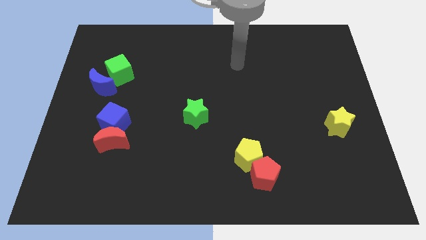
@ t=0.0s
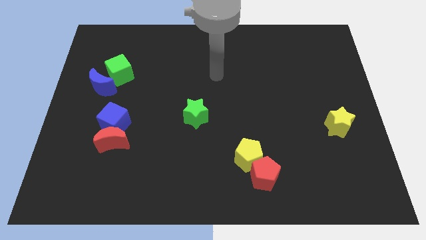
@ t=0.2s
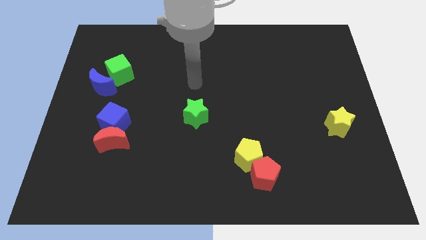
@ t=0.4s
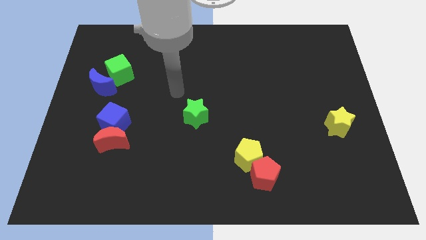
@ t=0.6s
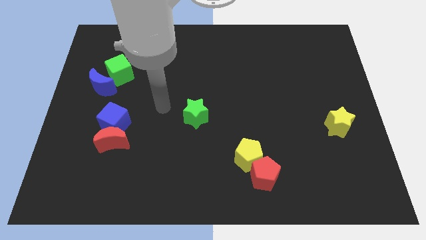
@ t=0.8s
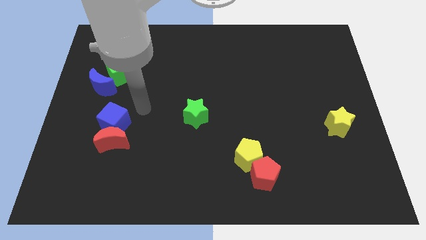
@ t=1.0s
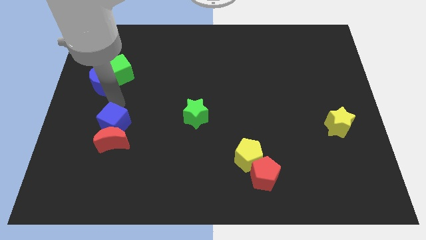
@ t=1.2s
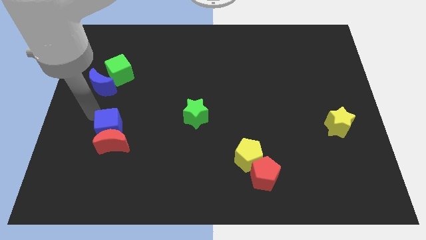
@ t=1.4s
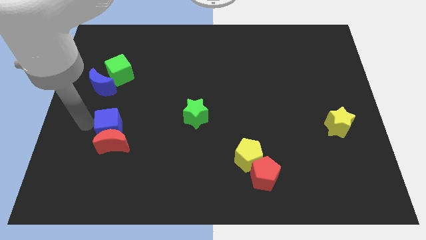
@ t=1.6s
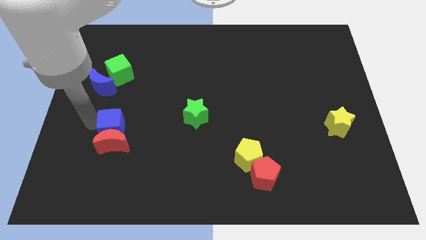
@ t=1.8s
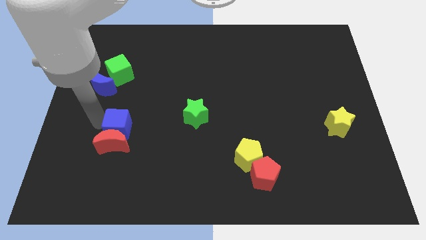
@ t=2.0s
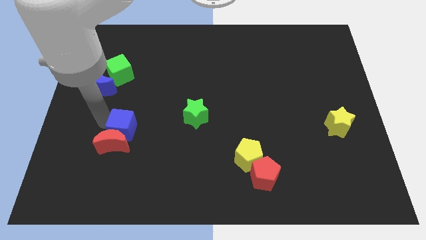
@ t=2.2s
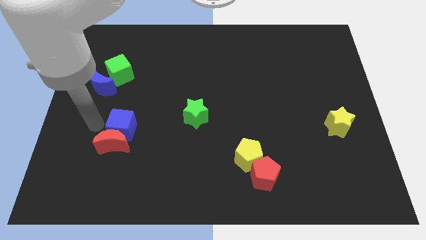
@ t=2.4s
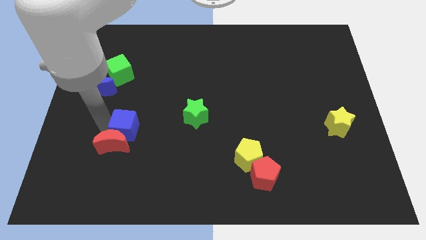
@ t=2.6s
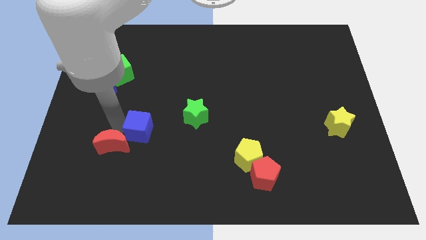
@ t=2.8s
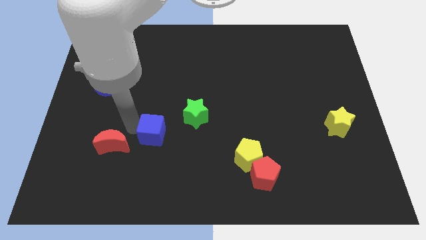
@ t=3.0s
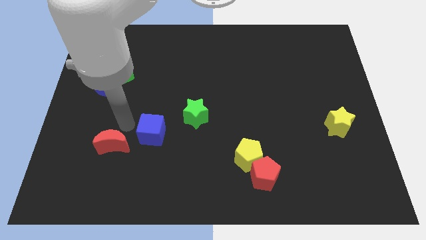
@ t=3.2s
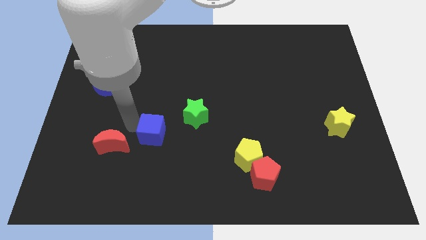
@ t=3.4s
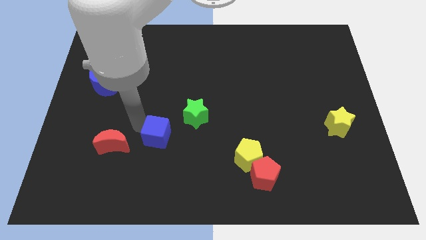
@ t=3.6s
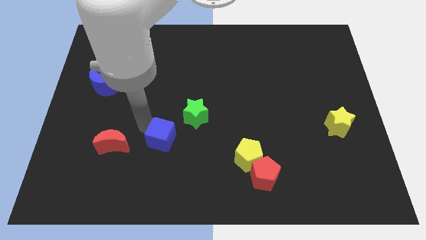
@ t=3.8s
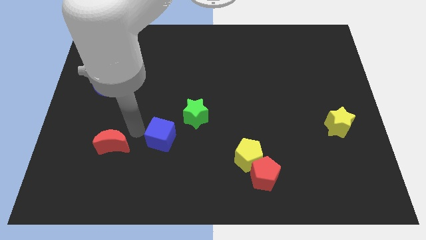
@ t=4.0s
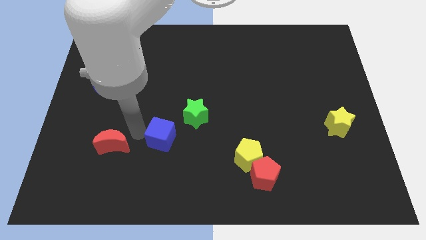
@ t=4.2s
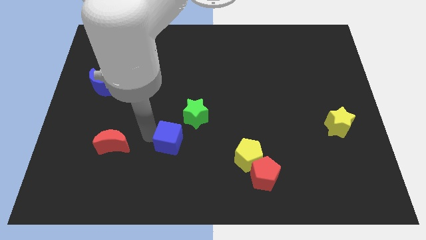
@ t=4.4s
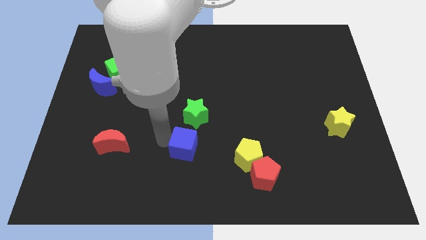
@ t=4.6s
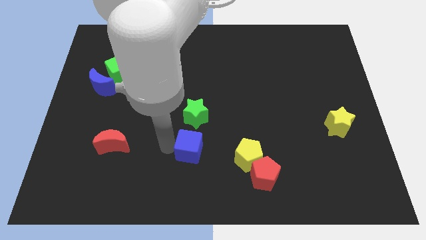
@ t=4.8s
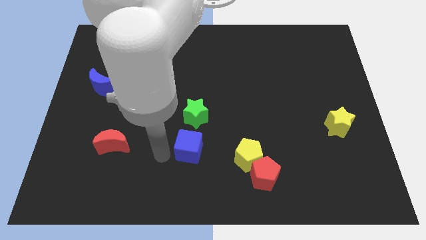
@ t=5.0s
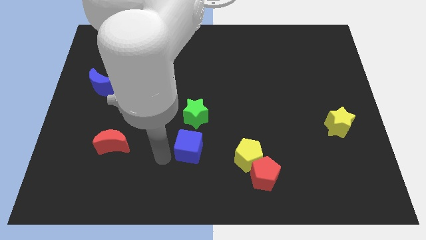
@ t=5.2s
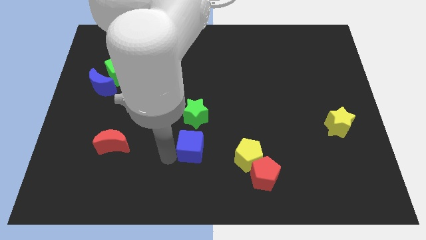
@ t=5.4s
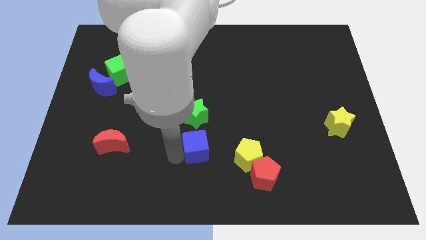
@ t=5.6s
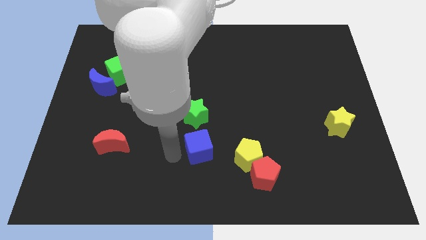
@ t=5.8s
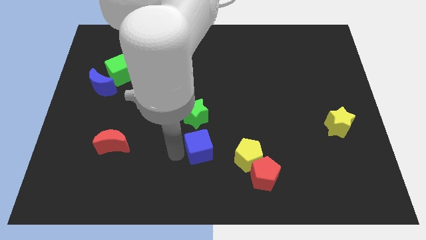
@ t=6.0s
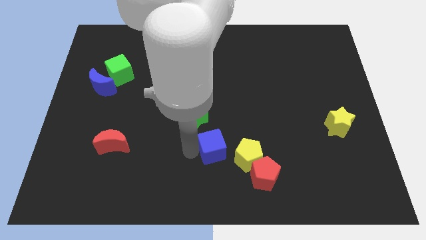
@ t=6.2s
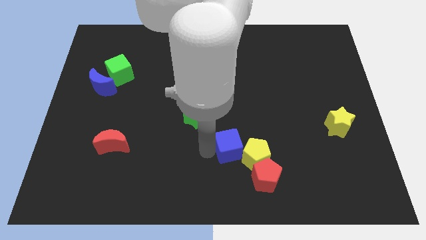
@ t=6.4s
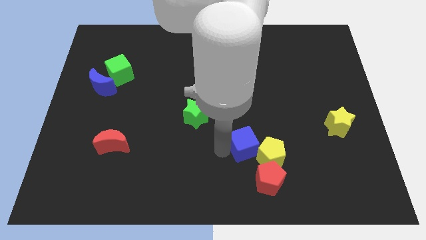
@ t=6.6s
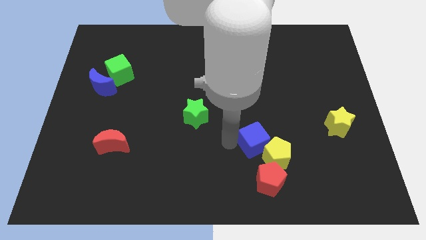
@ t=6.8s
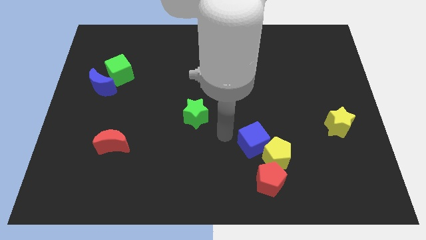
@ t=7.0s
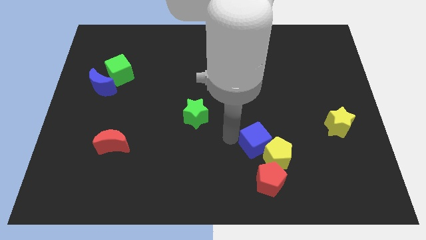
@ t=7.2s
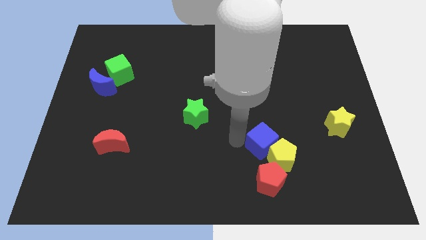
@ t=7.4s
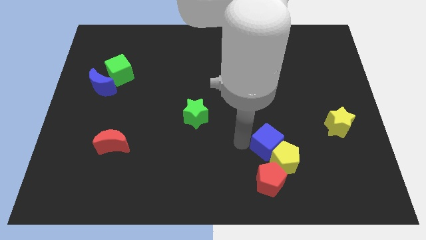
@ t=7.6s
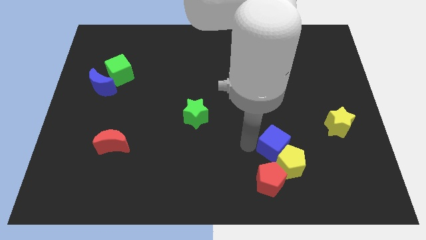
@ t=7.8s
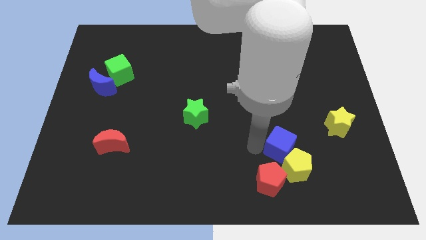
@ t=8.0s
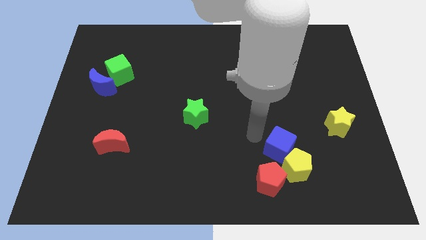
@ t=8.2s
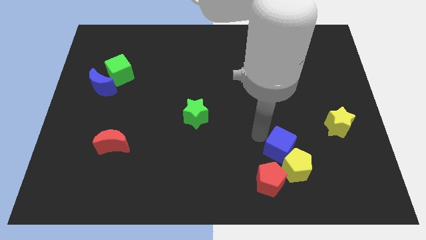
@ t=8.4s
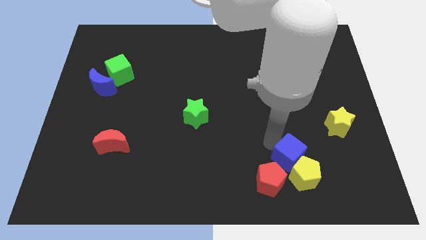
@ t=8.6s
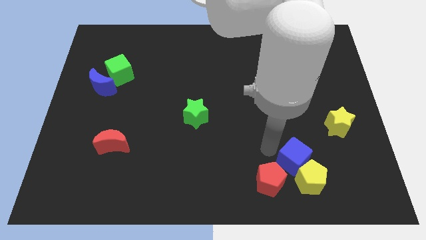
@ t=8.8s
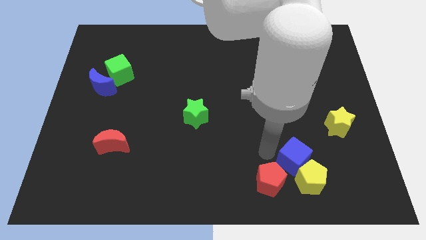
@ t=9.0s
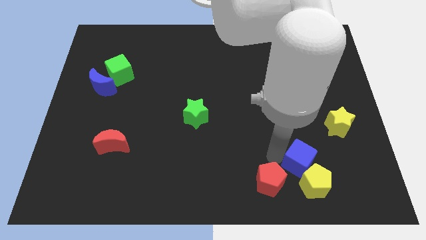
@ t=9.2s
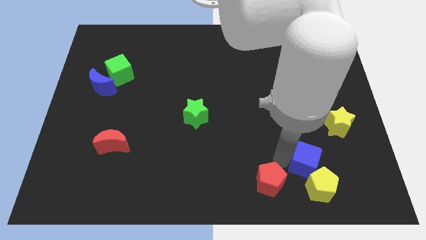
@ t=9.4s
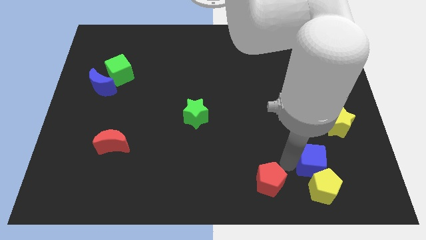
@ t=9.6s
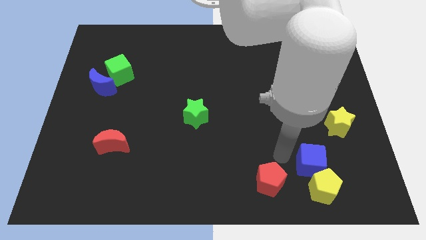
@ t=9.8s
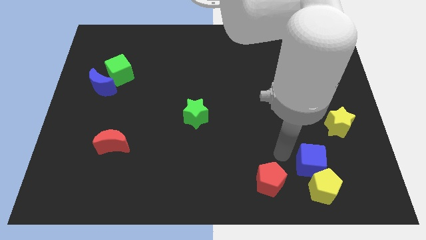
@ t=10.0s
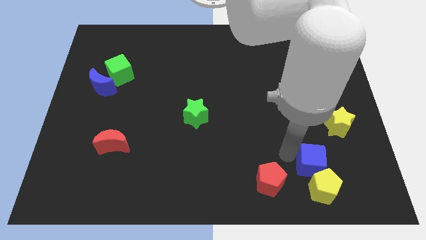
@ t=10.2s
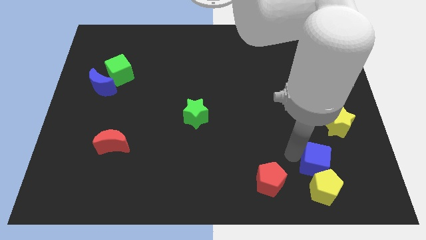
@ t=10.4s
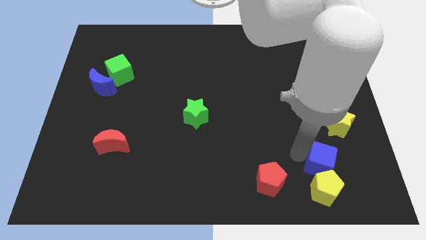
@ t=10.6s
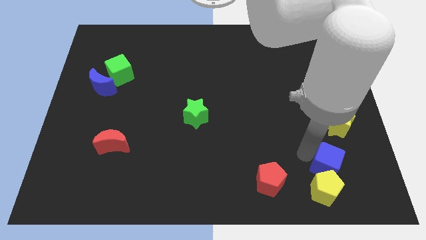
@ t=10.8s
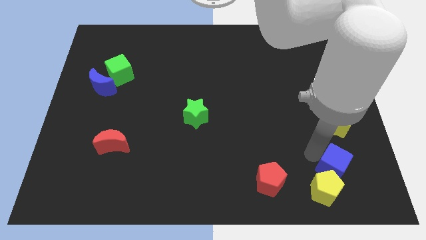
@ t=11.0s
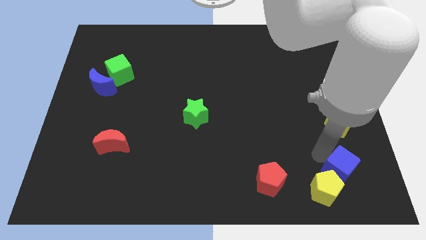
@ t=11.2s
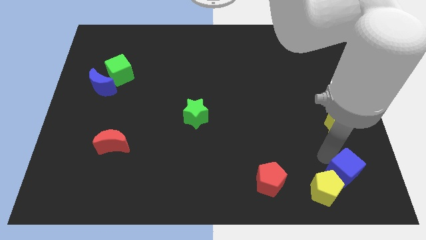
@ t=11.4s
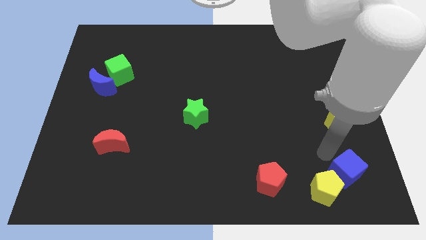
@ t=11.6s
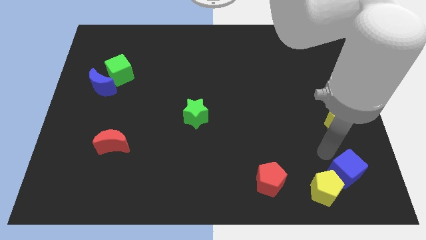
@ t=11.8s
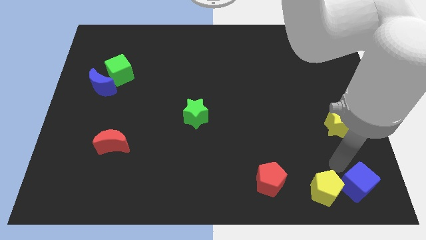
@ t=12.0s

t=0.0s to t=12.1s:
move the blue cube to the bottom right
